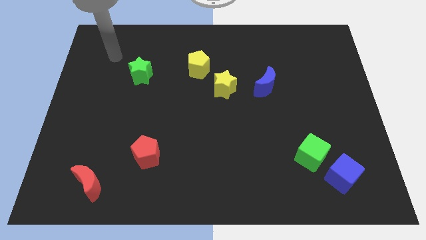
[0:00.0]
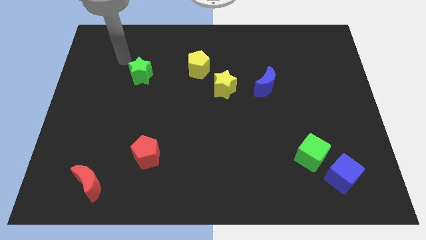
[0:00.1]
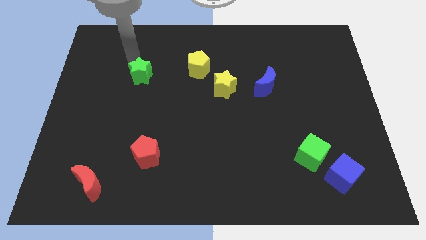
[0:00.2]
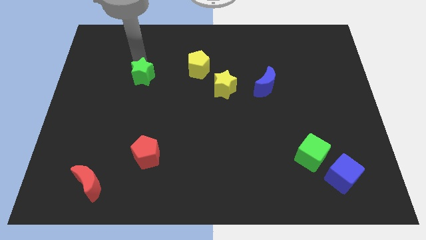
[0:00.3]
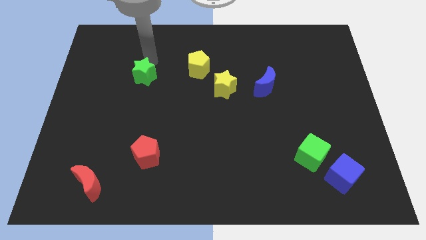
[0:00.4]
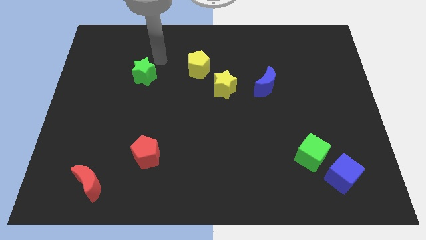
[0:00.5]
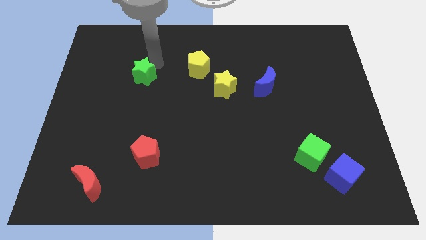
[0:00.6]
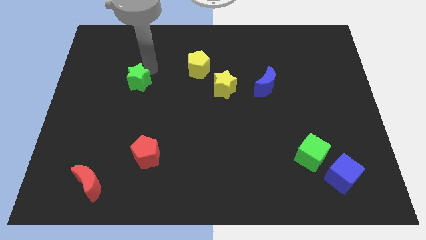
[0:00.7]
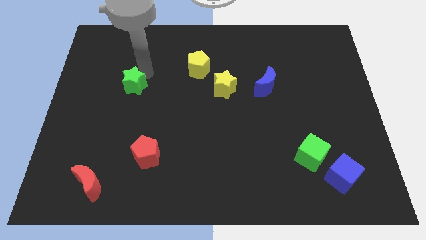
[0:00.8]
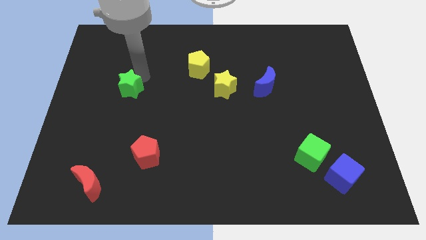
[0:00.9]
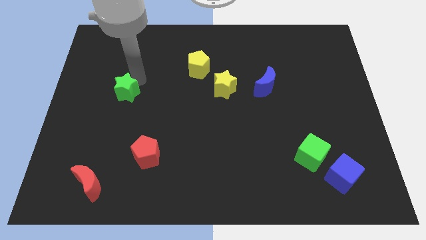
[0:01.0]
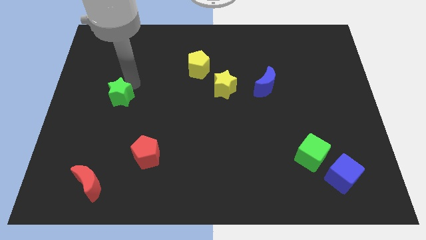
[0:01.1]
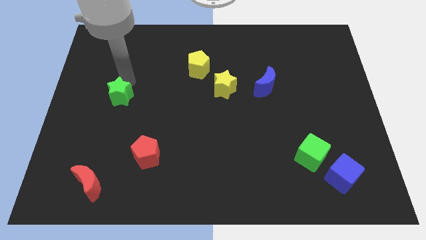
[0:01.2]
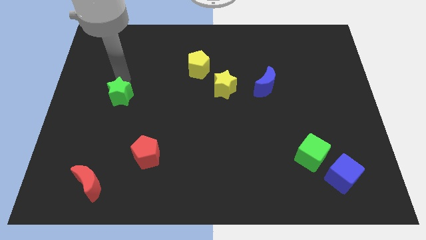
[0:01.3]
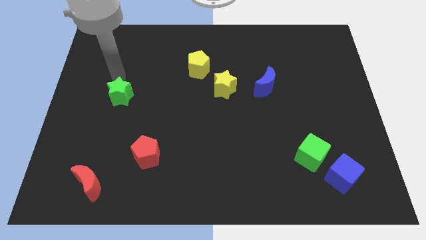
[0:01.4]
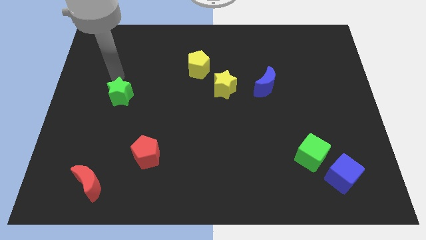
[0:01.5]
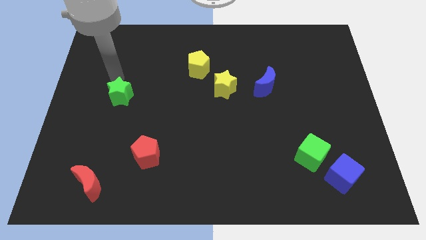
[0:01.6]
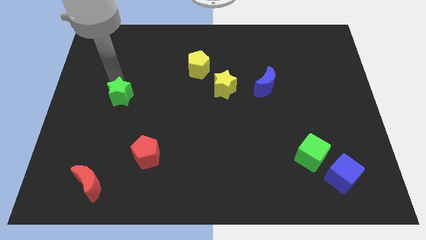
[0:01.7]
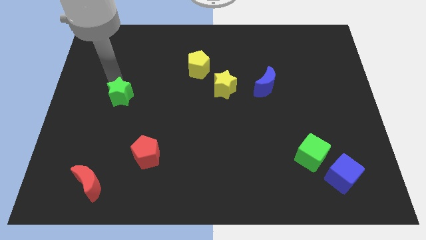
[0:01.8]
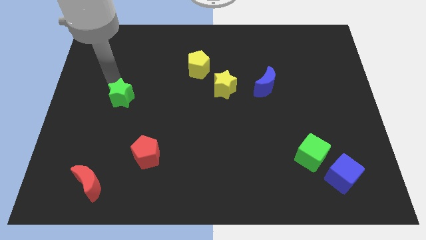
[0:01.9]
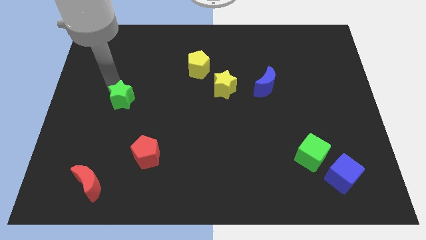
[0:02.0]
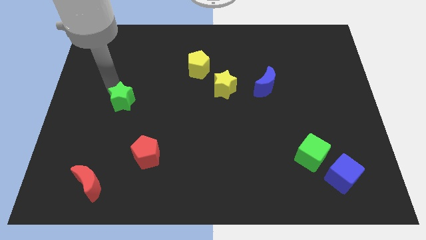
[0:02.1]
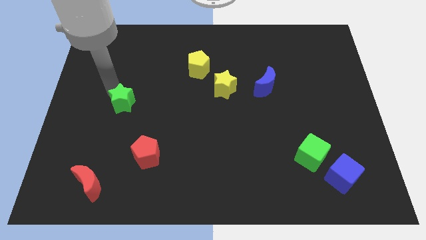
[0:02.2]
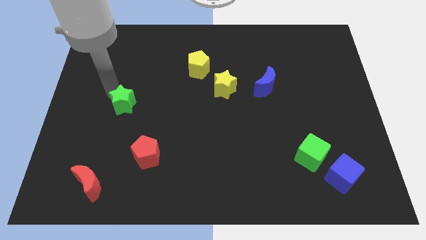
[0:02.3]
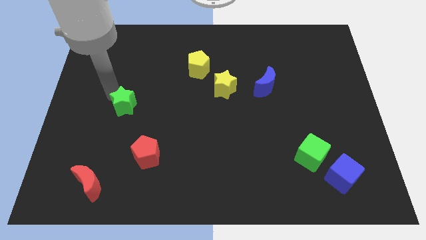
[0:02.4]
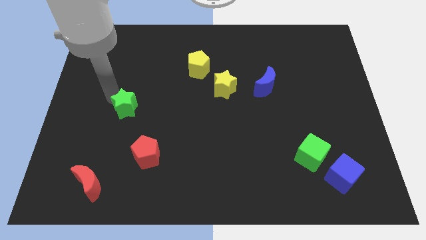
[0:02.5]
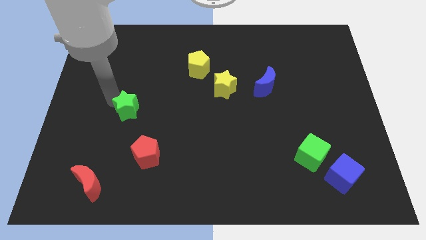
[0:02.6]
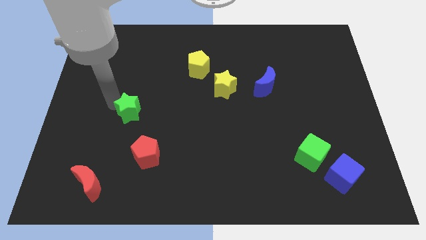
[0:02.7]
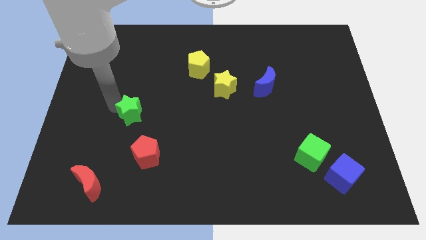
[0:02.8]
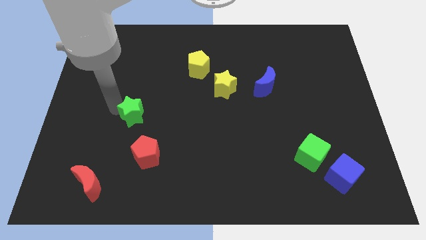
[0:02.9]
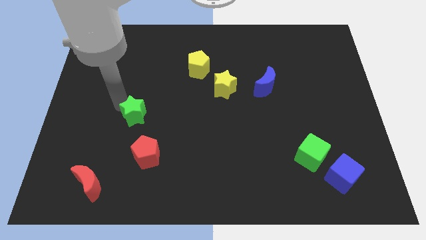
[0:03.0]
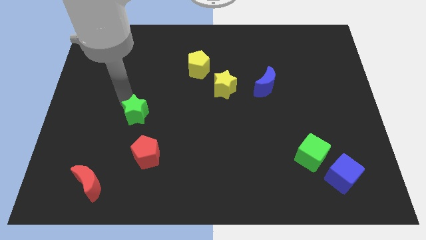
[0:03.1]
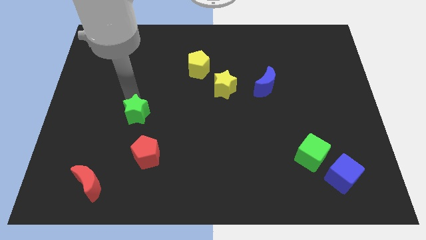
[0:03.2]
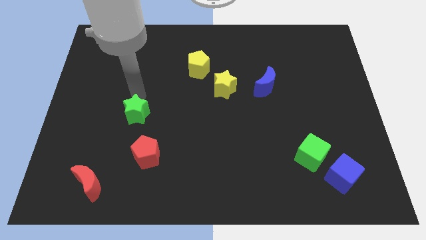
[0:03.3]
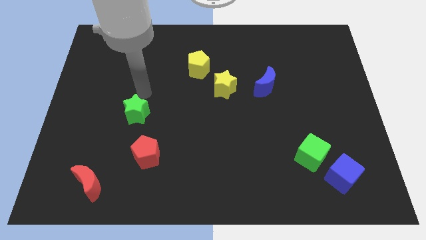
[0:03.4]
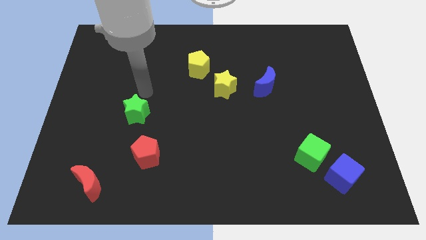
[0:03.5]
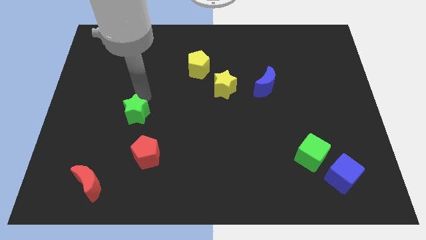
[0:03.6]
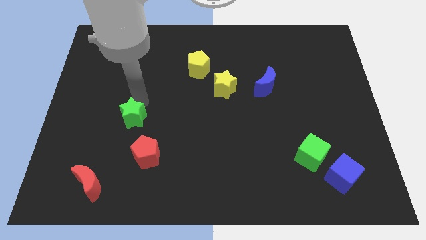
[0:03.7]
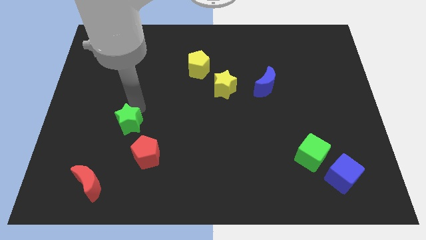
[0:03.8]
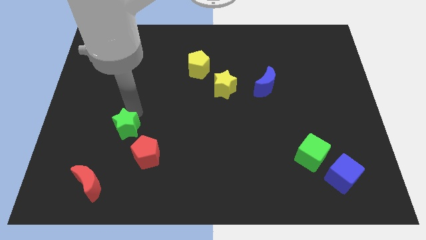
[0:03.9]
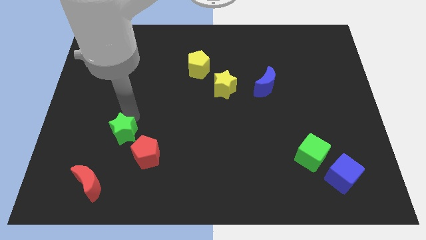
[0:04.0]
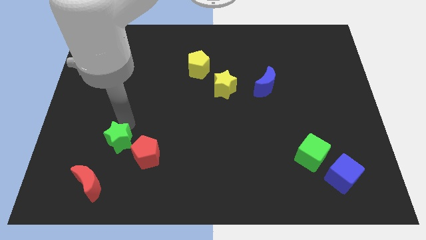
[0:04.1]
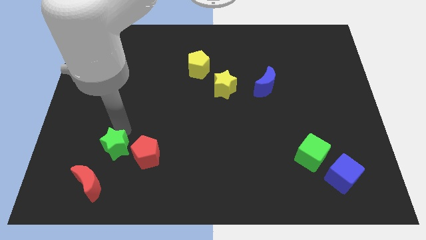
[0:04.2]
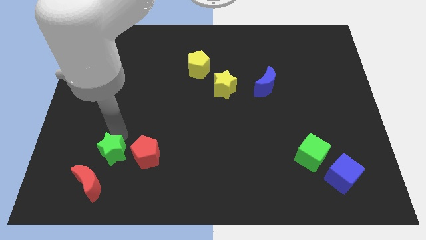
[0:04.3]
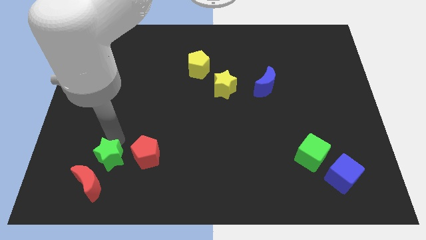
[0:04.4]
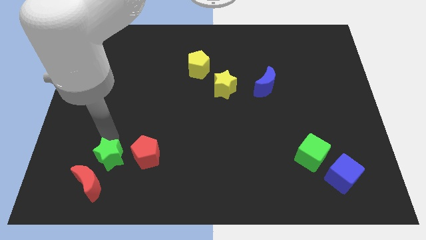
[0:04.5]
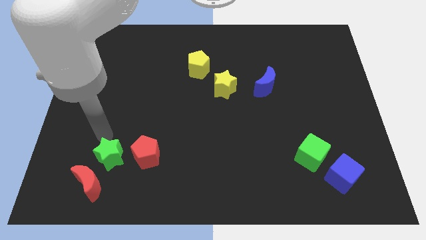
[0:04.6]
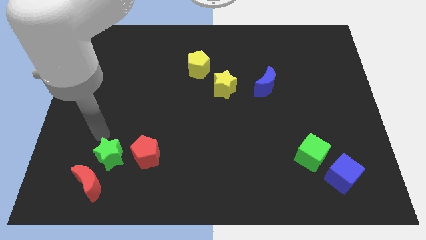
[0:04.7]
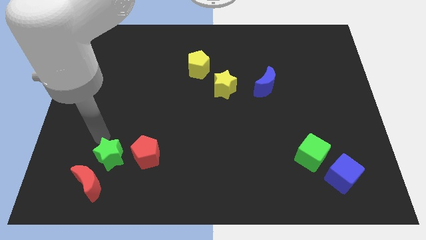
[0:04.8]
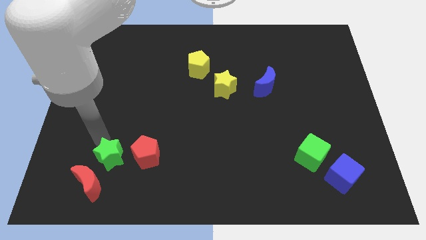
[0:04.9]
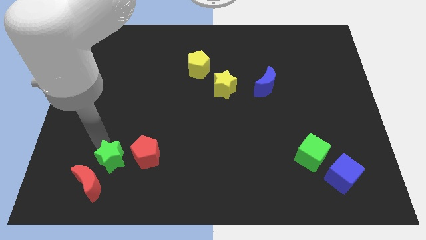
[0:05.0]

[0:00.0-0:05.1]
slide the green star to the bottom left of the red pentagon

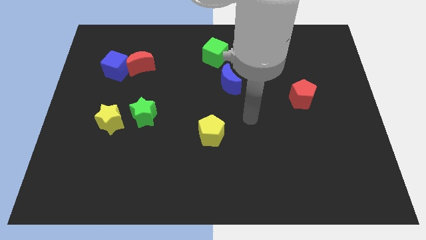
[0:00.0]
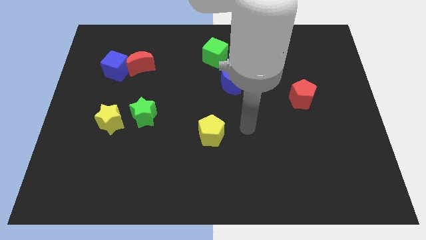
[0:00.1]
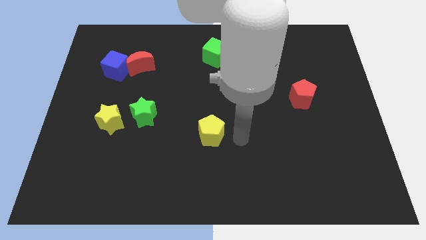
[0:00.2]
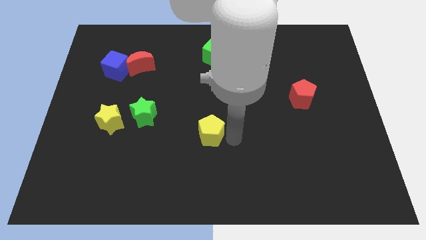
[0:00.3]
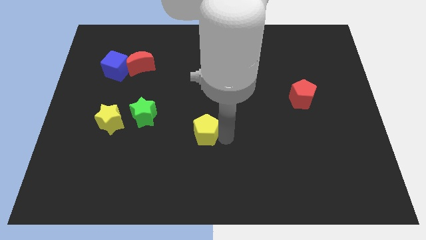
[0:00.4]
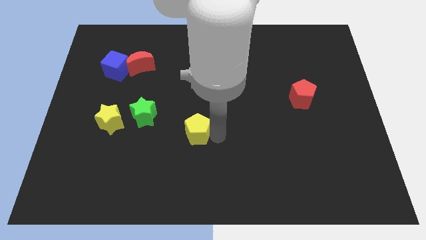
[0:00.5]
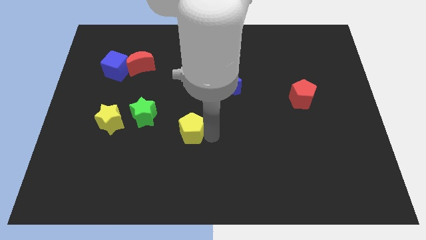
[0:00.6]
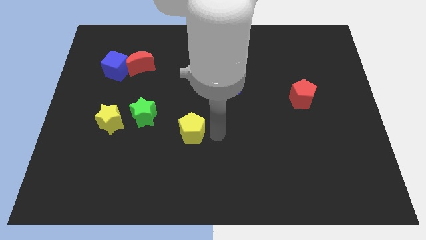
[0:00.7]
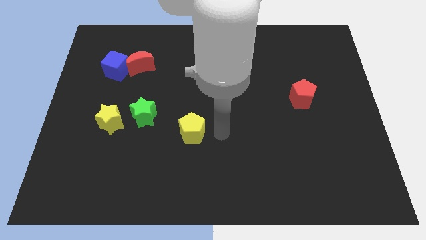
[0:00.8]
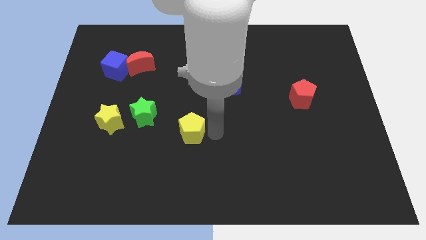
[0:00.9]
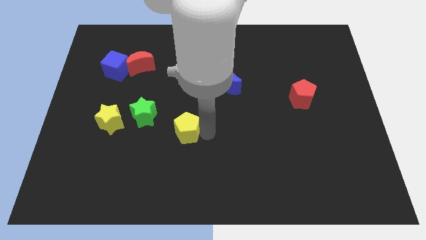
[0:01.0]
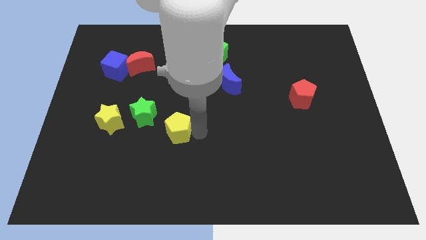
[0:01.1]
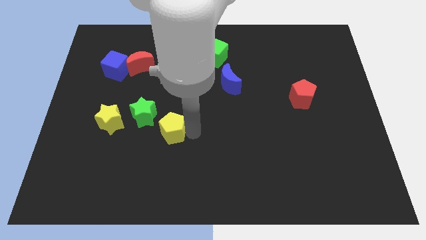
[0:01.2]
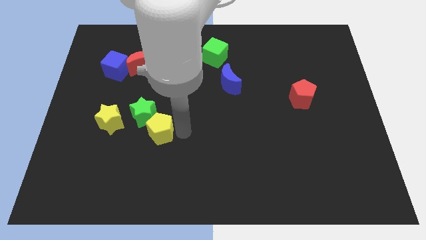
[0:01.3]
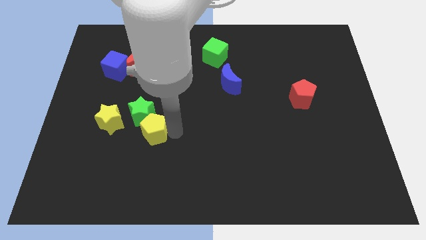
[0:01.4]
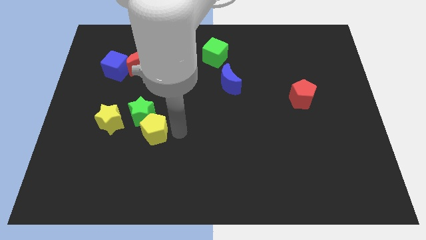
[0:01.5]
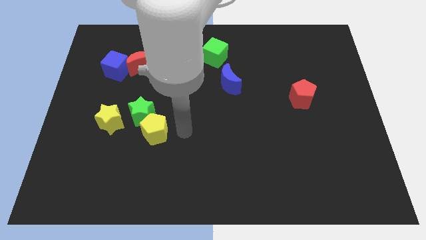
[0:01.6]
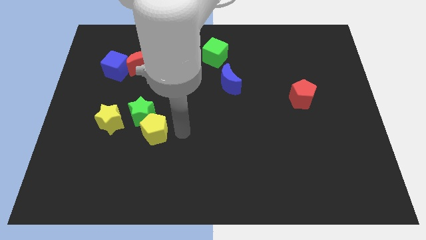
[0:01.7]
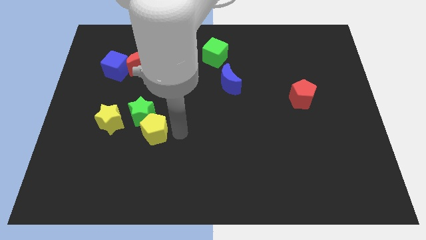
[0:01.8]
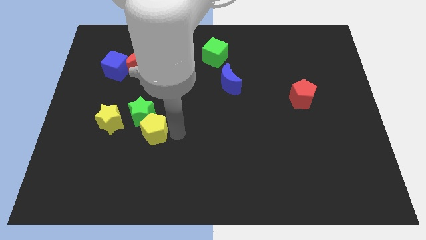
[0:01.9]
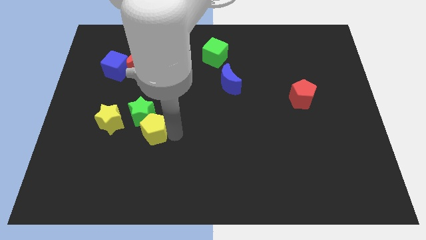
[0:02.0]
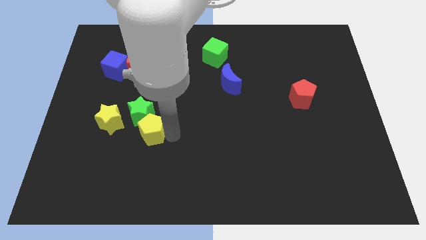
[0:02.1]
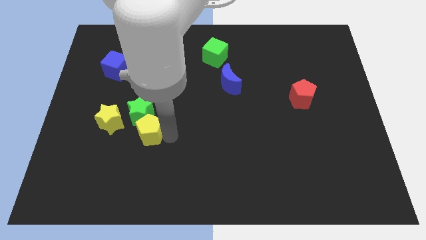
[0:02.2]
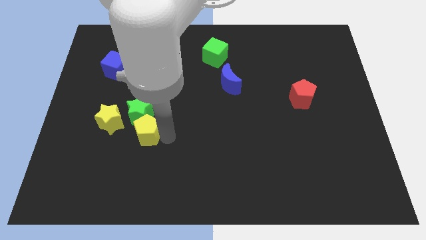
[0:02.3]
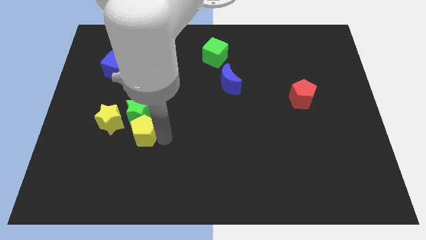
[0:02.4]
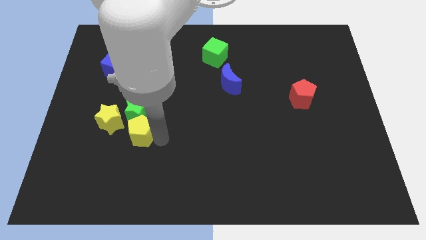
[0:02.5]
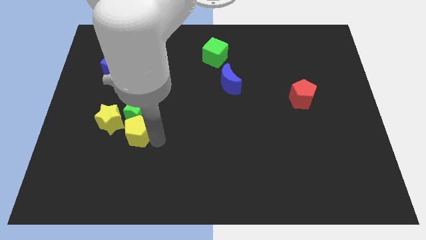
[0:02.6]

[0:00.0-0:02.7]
slide the yellow pentagon to the bottom left side of the green star
